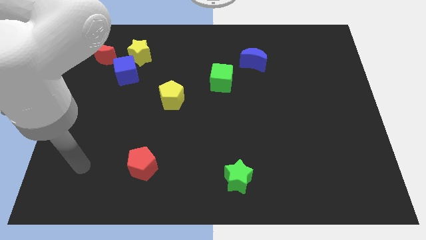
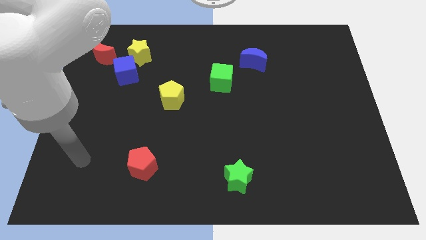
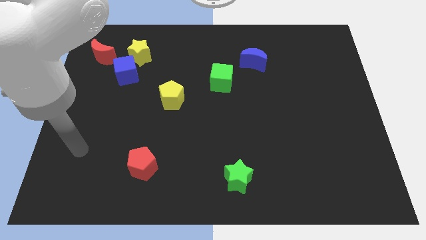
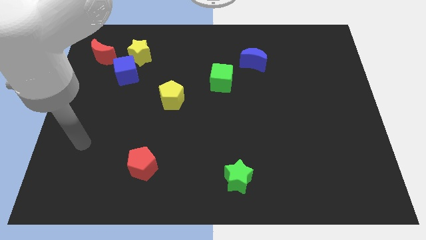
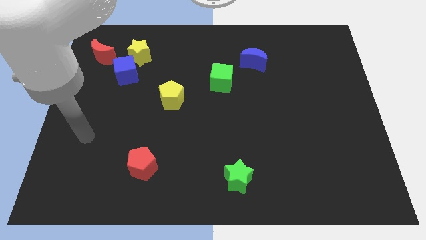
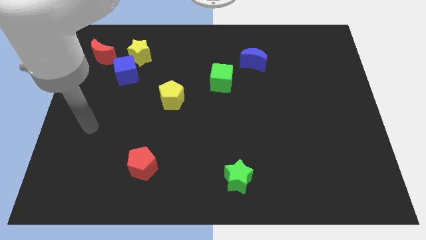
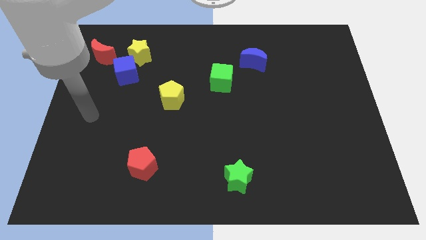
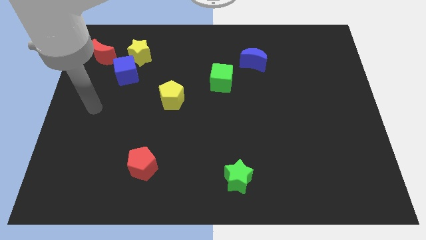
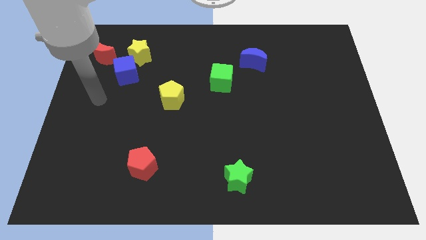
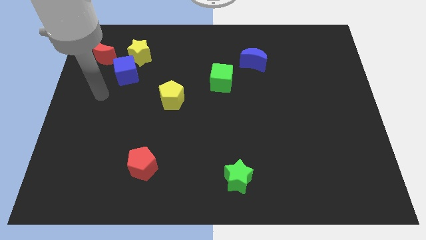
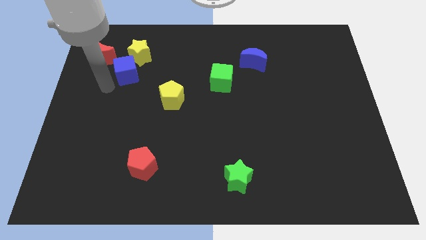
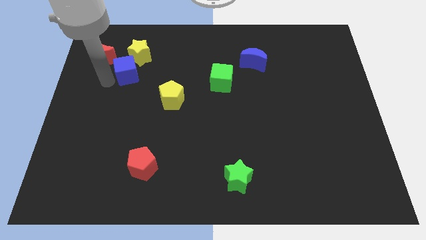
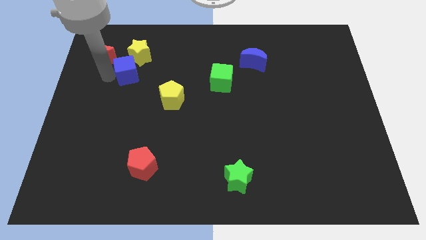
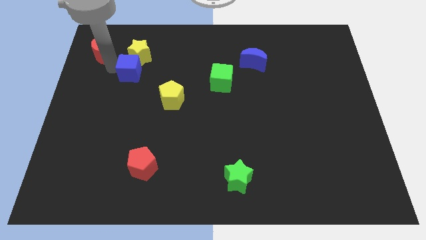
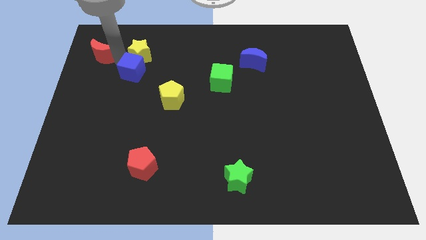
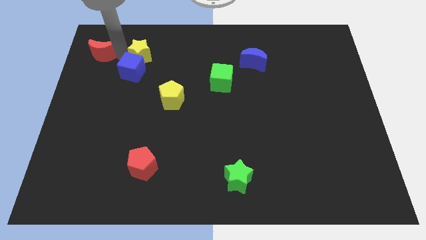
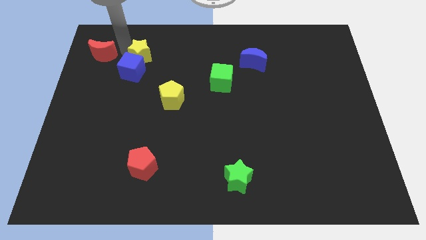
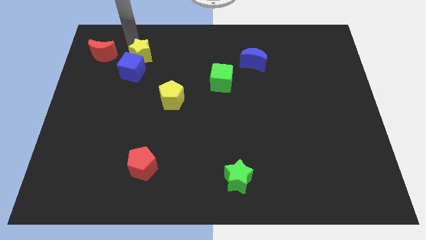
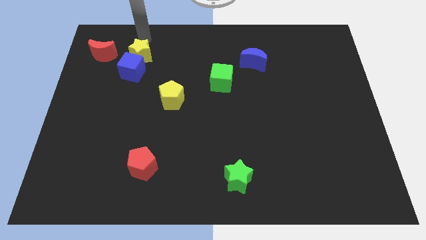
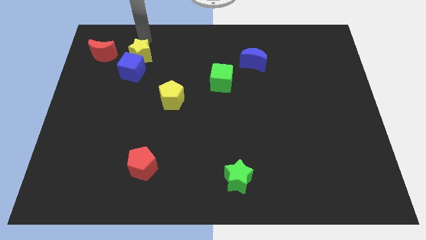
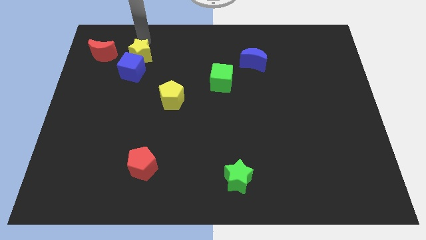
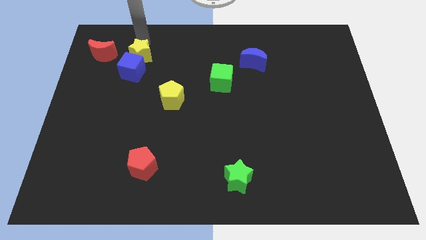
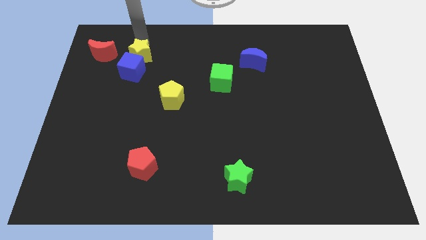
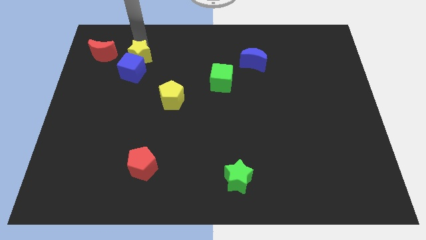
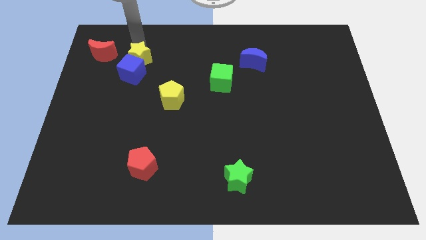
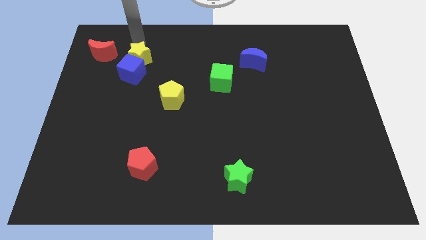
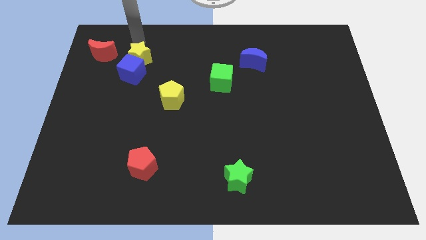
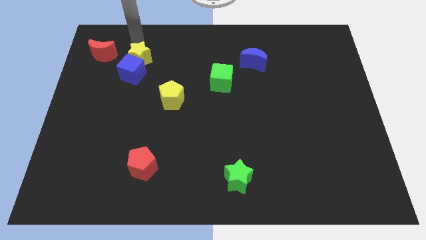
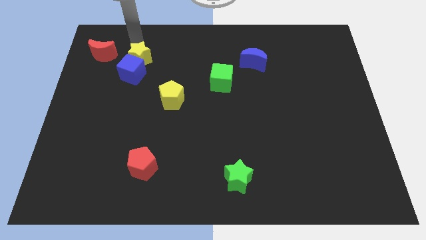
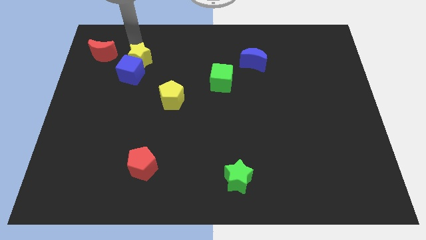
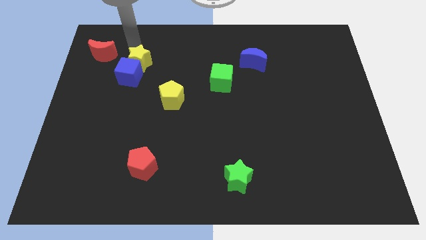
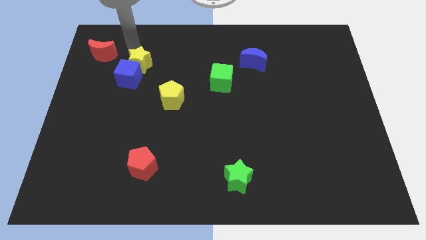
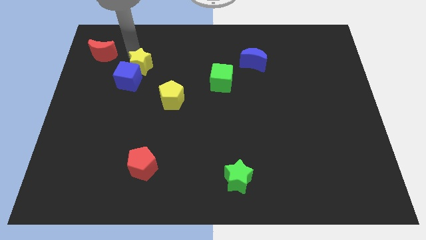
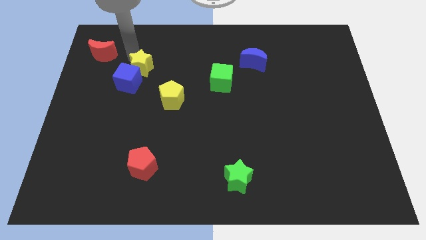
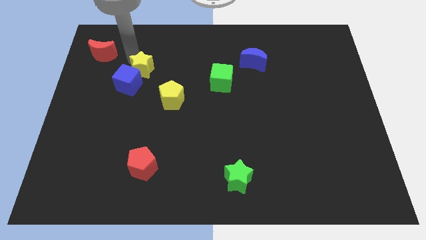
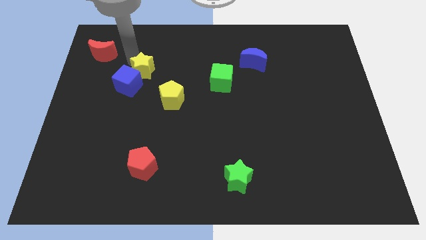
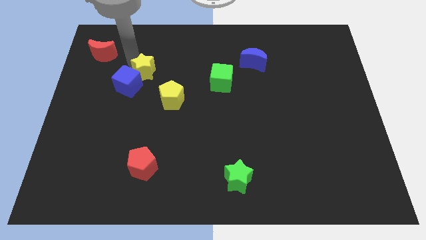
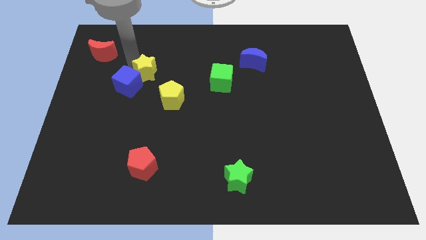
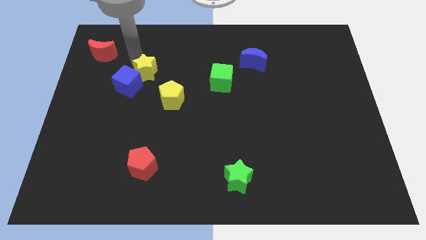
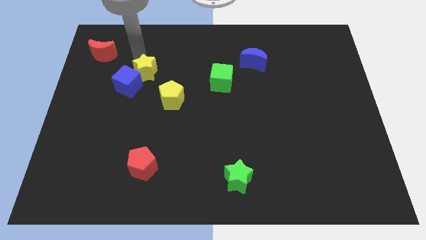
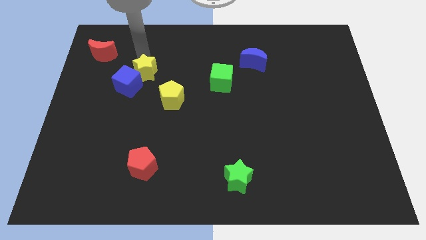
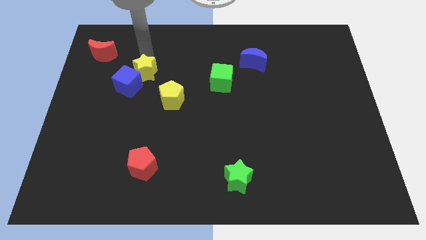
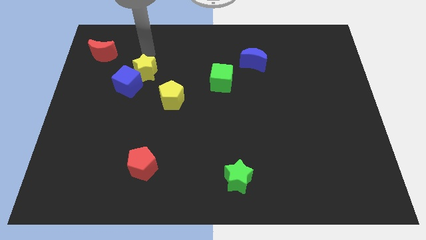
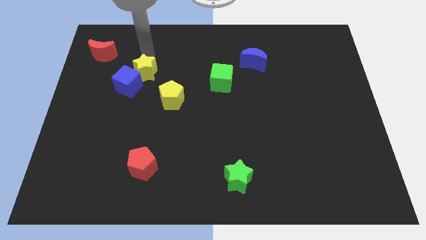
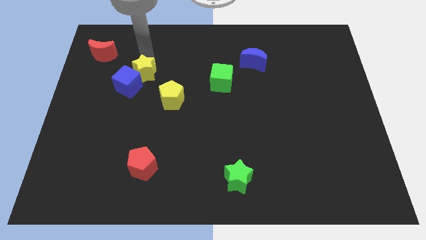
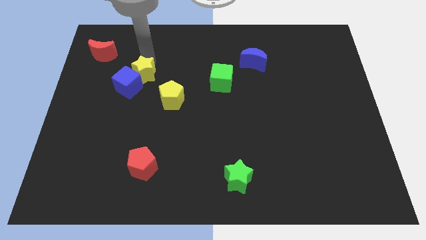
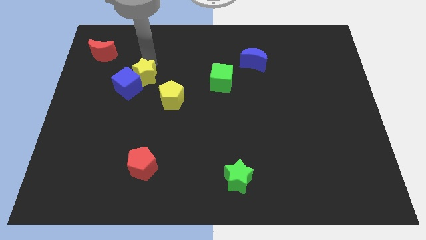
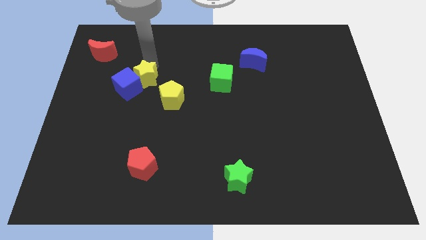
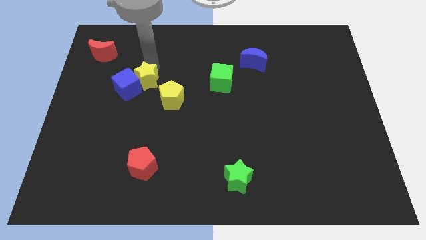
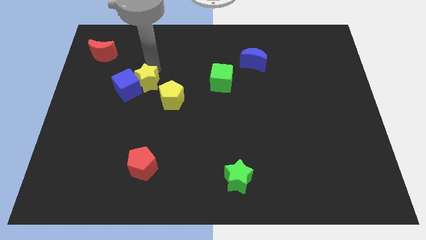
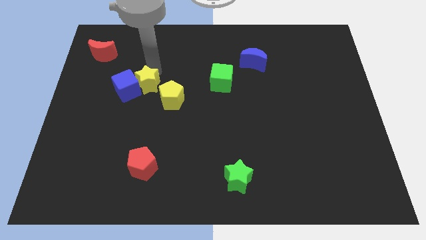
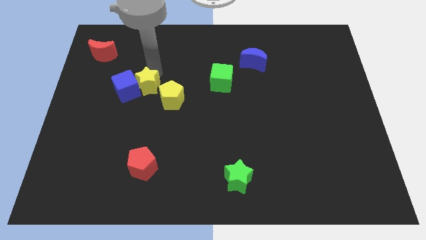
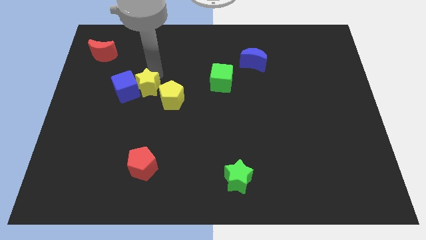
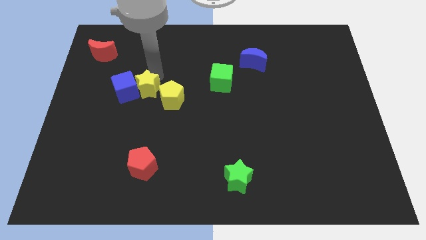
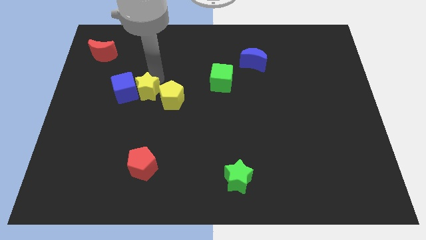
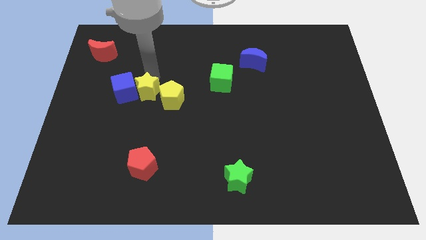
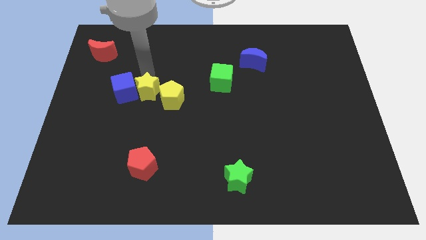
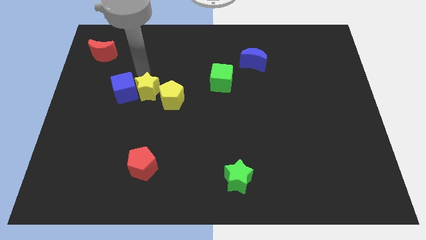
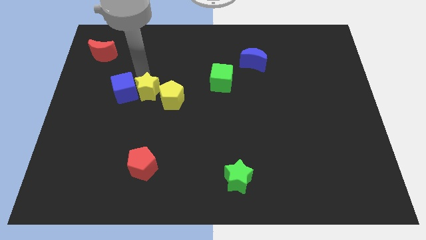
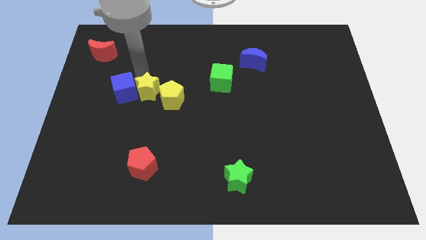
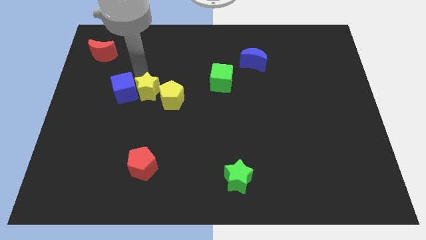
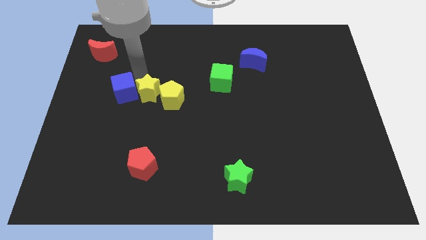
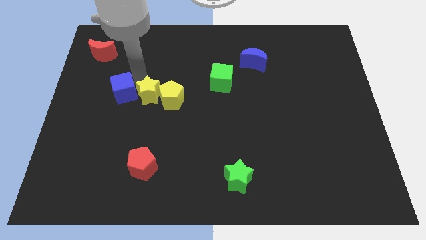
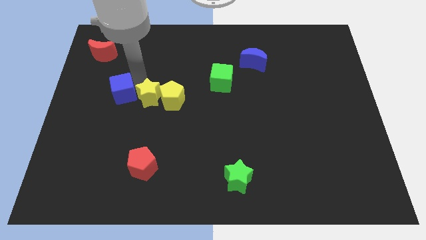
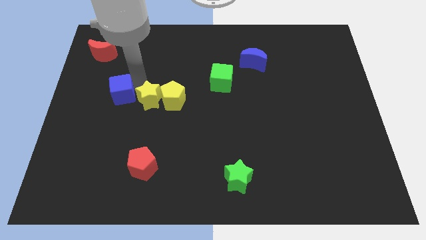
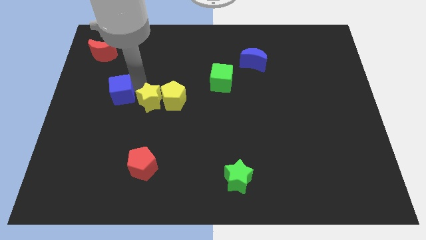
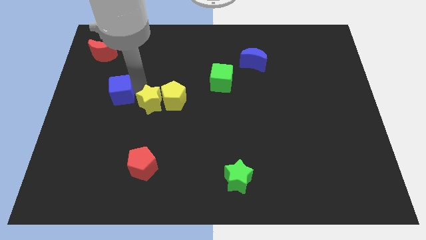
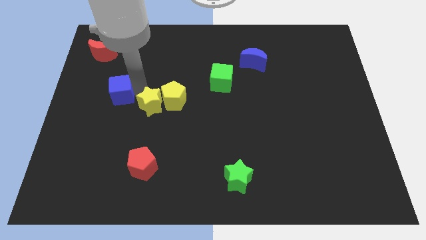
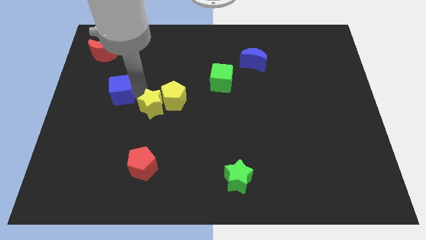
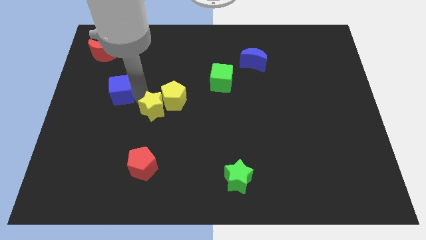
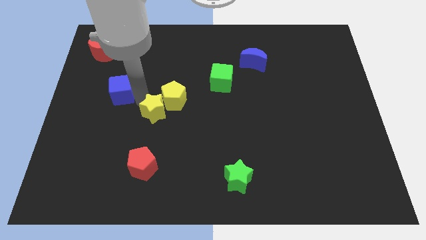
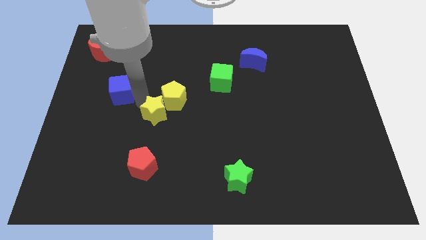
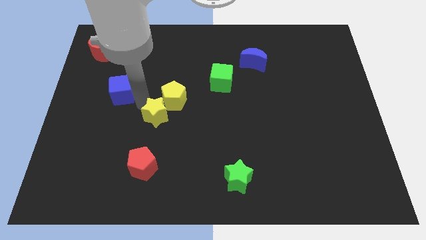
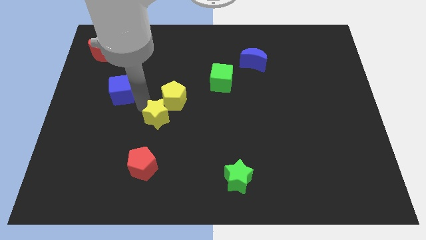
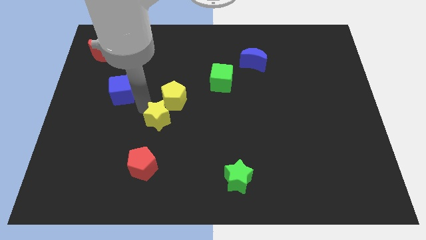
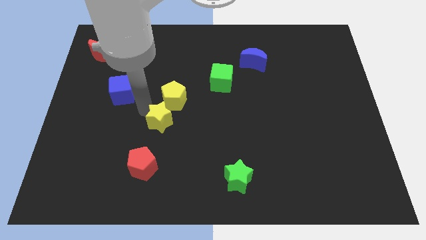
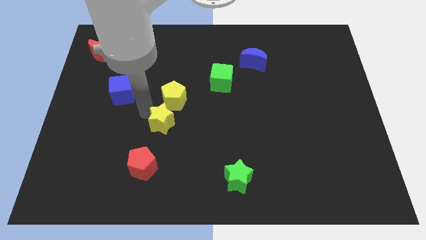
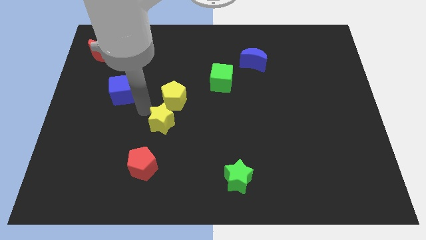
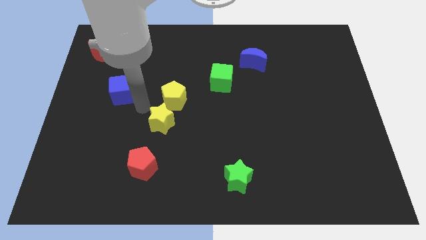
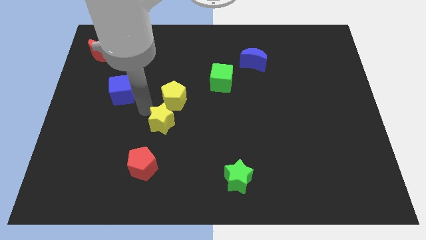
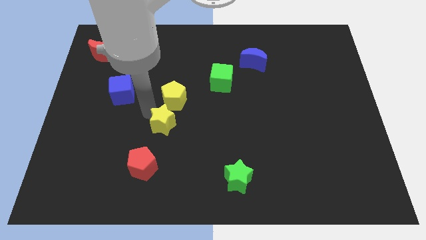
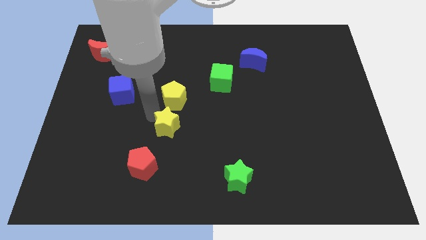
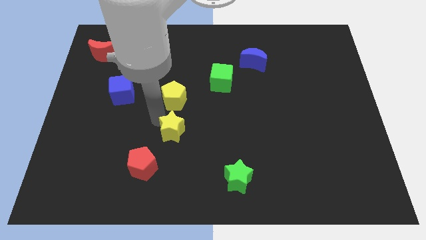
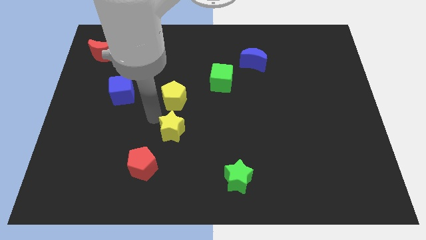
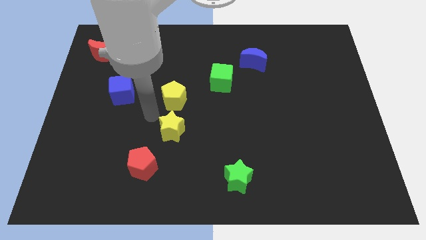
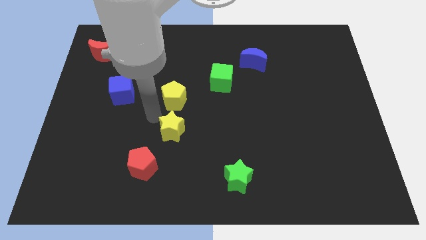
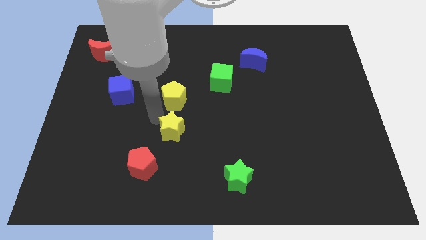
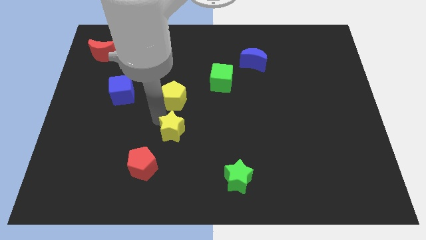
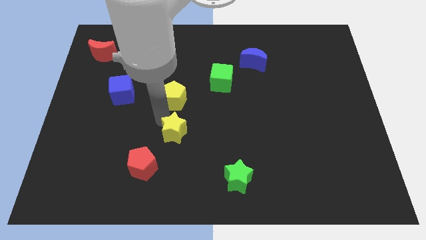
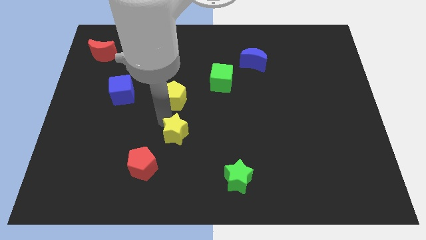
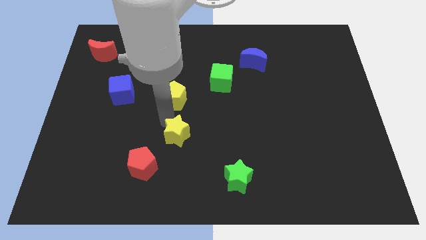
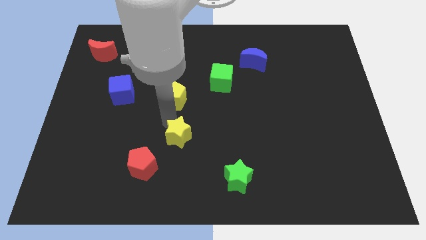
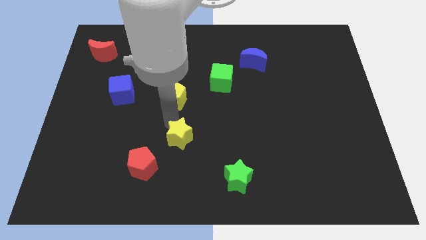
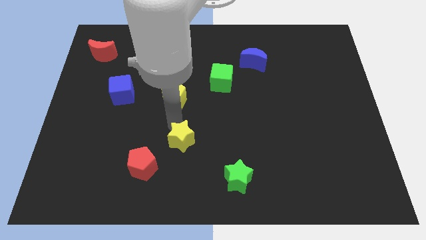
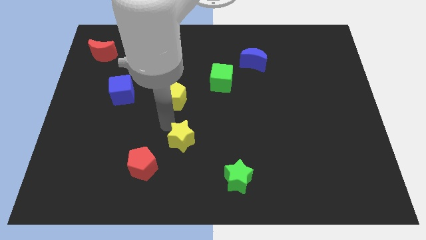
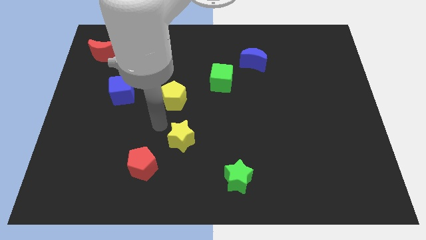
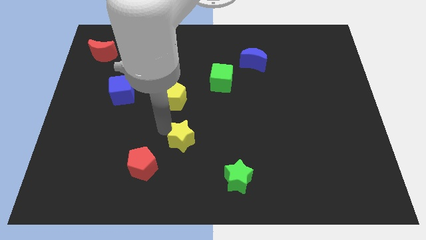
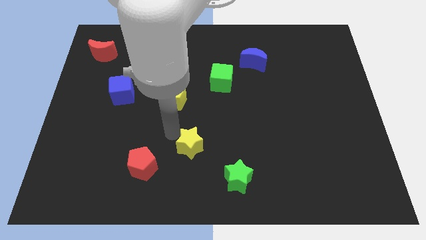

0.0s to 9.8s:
push the yellow star to the top left of the green star
